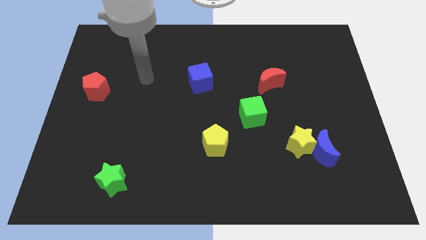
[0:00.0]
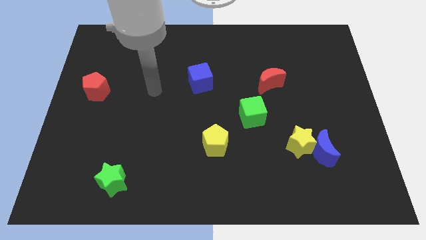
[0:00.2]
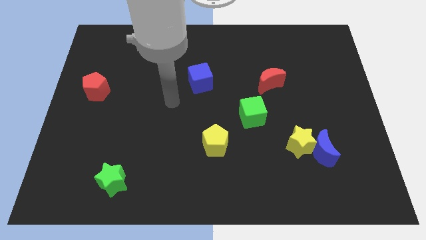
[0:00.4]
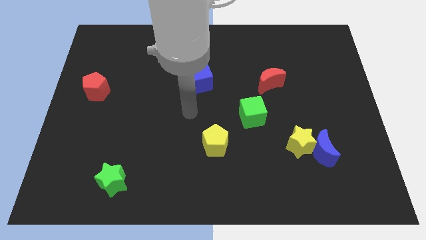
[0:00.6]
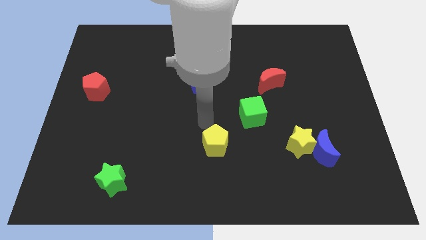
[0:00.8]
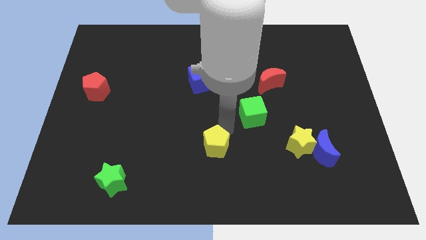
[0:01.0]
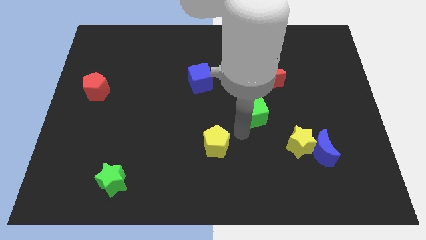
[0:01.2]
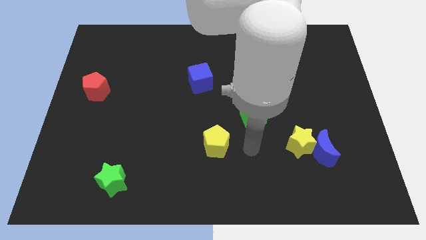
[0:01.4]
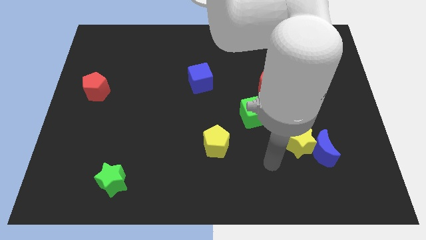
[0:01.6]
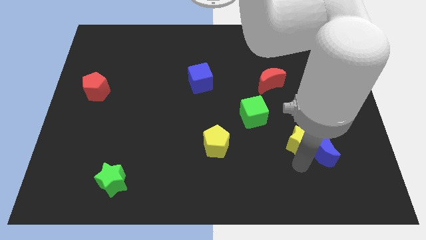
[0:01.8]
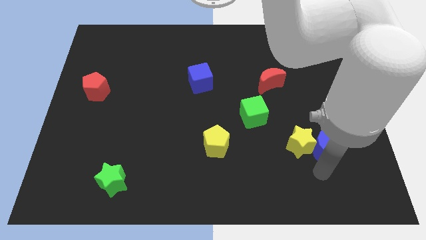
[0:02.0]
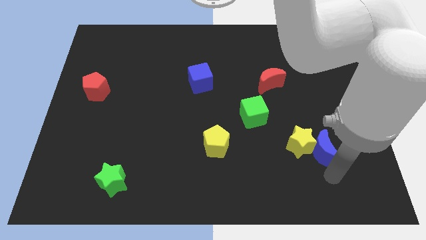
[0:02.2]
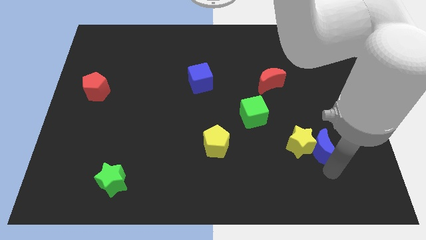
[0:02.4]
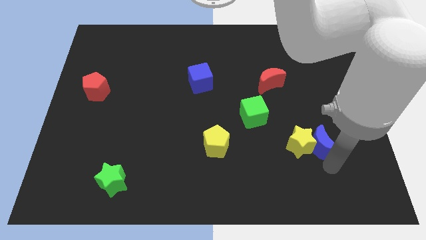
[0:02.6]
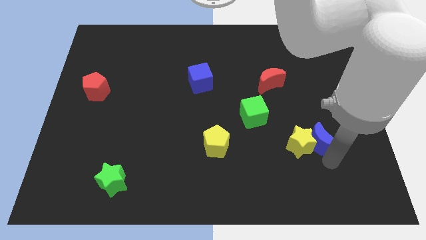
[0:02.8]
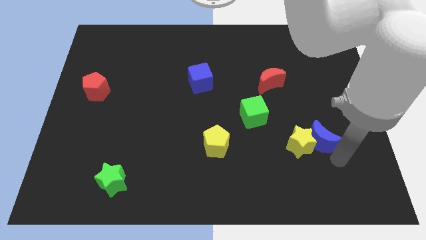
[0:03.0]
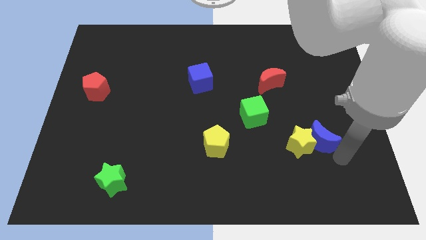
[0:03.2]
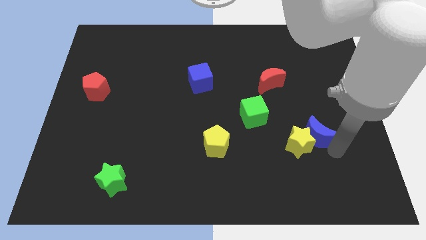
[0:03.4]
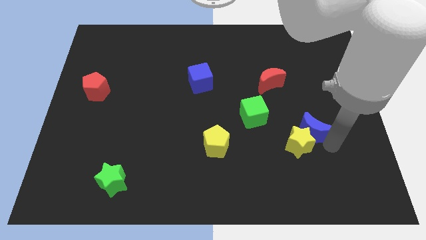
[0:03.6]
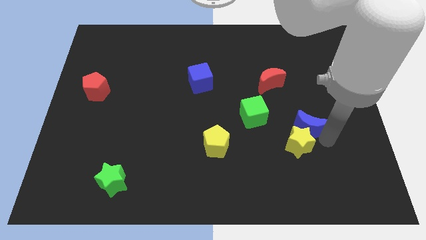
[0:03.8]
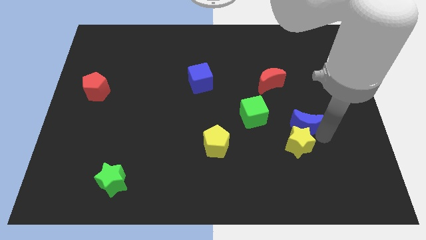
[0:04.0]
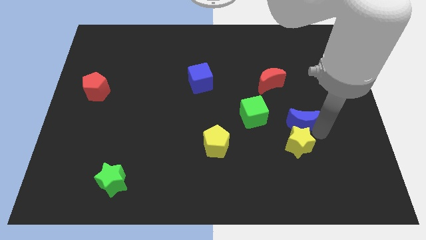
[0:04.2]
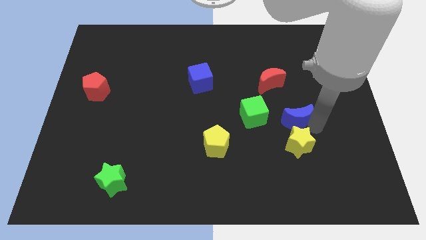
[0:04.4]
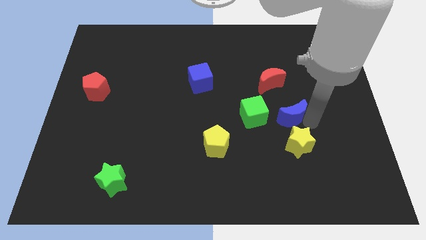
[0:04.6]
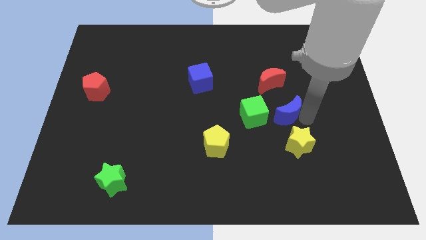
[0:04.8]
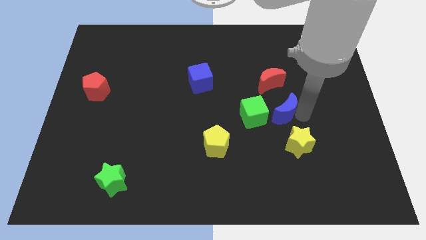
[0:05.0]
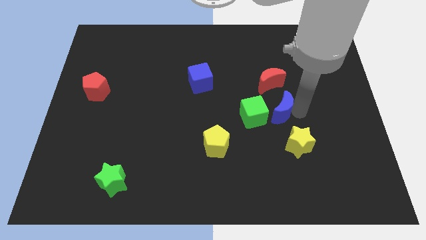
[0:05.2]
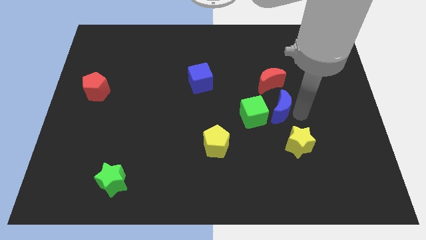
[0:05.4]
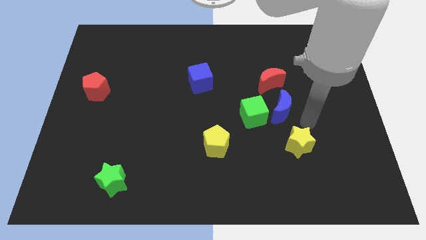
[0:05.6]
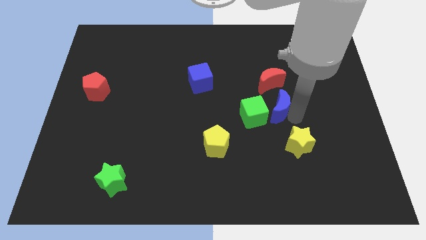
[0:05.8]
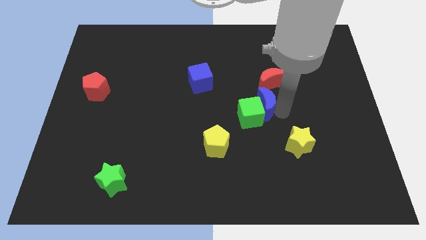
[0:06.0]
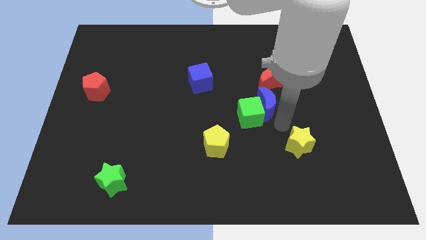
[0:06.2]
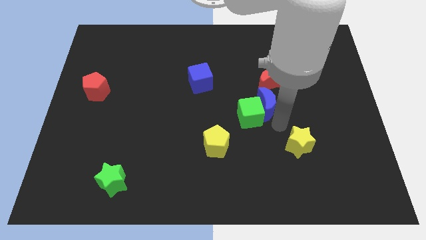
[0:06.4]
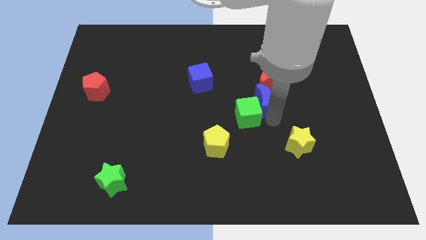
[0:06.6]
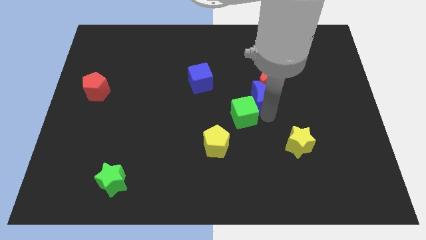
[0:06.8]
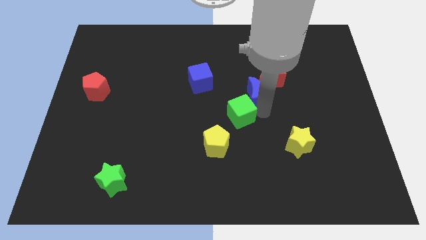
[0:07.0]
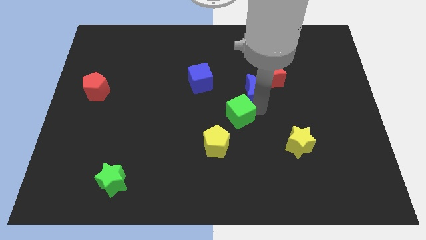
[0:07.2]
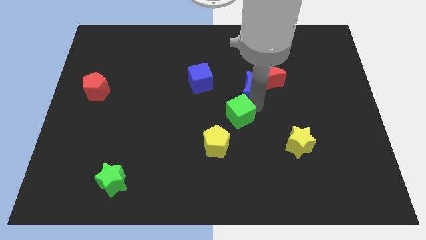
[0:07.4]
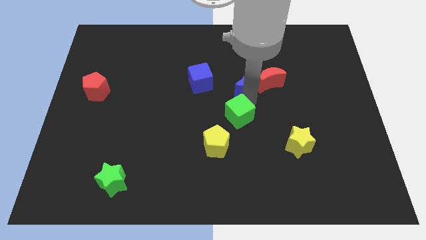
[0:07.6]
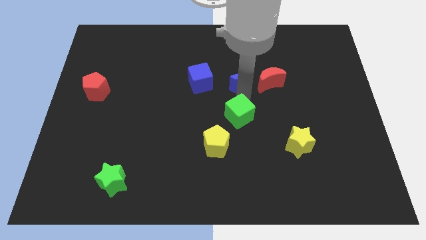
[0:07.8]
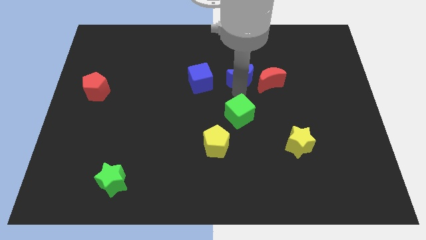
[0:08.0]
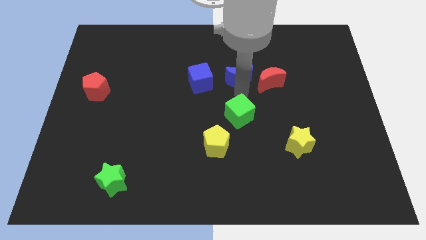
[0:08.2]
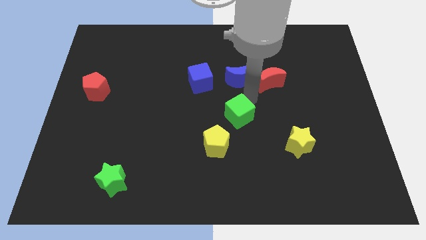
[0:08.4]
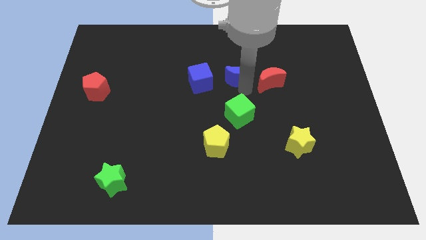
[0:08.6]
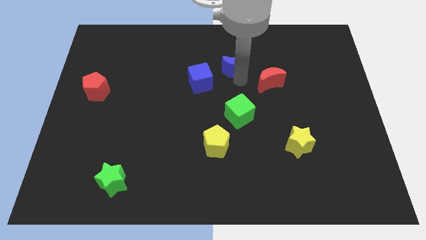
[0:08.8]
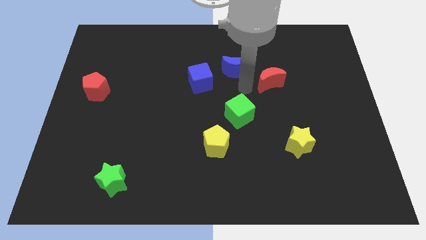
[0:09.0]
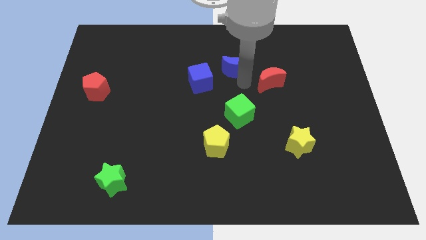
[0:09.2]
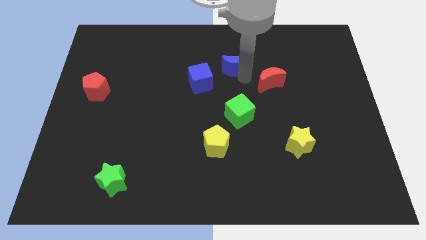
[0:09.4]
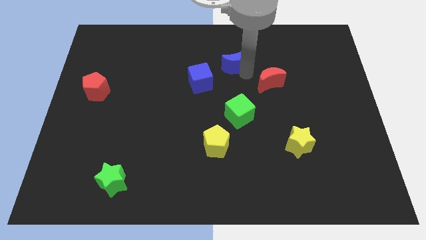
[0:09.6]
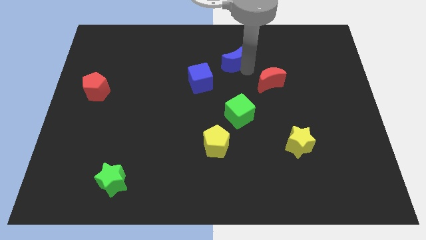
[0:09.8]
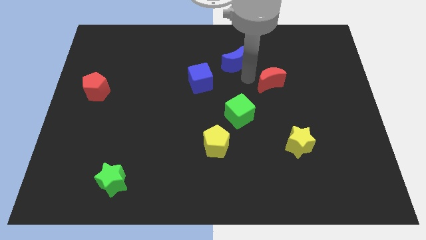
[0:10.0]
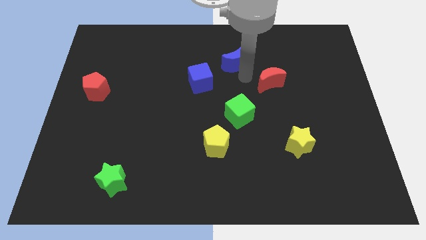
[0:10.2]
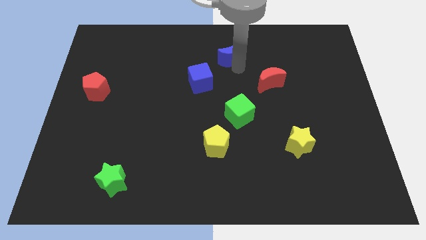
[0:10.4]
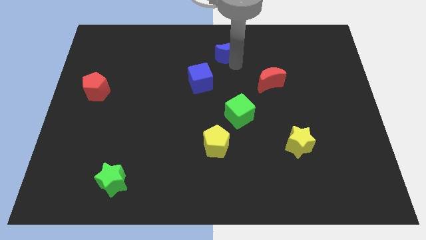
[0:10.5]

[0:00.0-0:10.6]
put the blue moon to the top

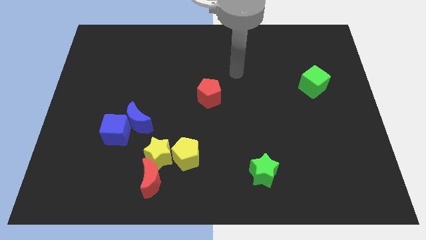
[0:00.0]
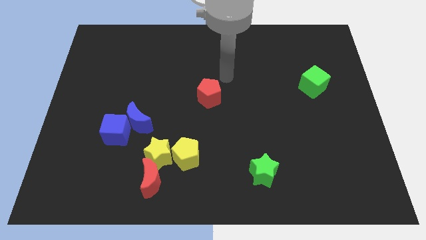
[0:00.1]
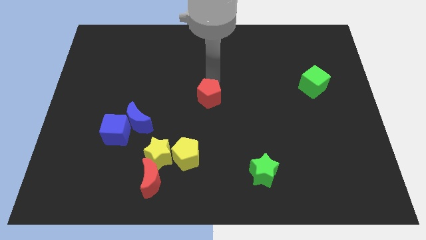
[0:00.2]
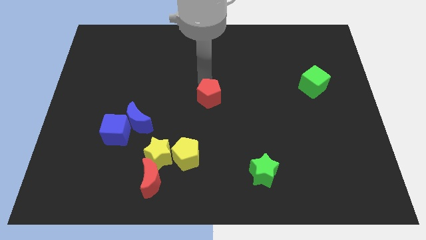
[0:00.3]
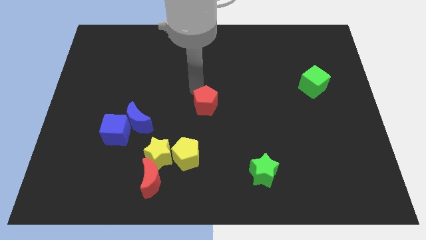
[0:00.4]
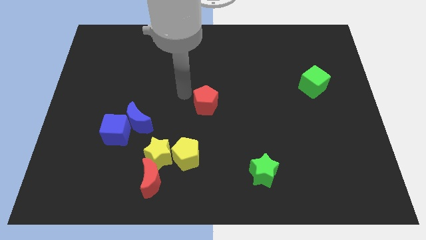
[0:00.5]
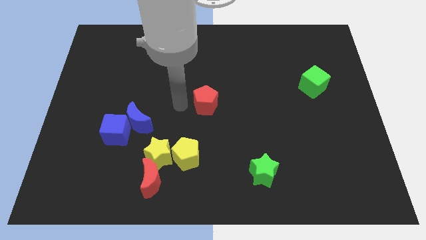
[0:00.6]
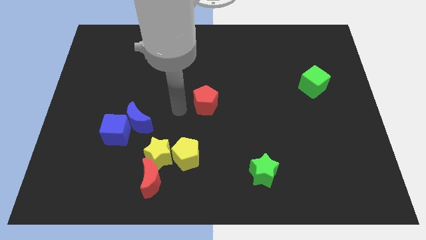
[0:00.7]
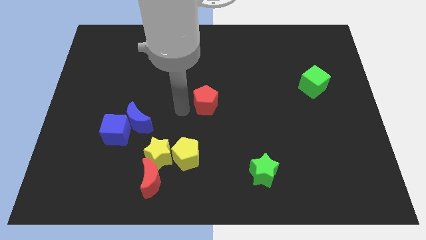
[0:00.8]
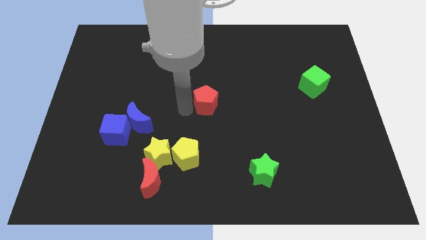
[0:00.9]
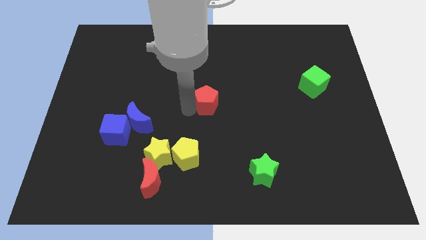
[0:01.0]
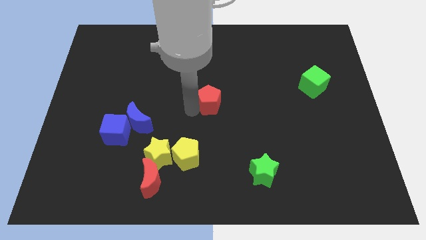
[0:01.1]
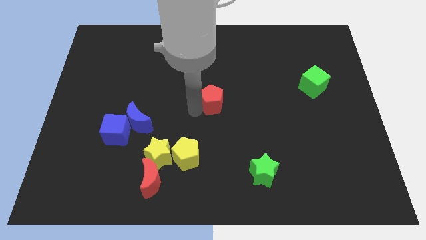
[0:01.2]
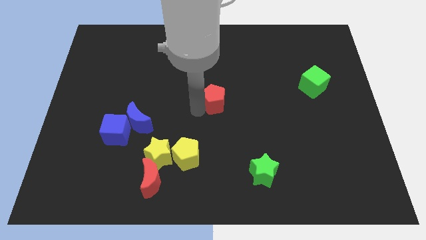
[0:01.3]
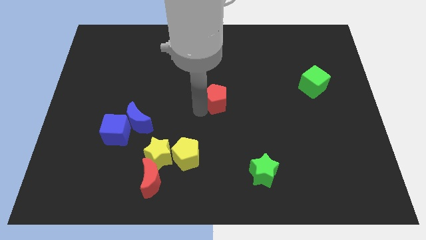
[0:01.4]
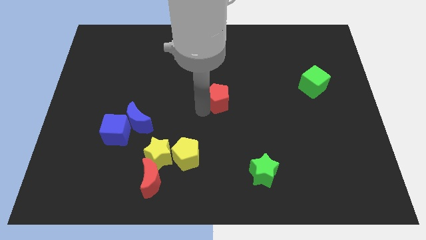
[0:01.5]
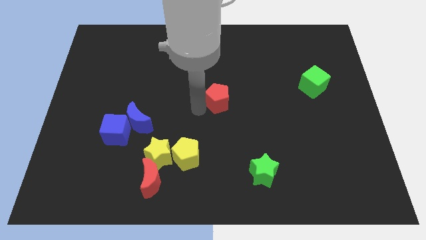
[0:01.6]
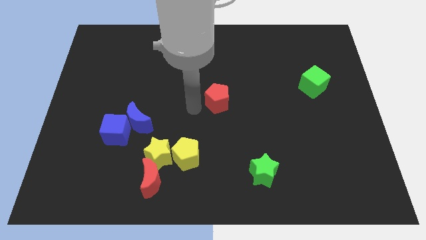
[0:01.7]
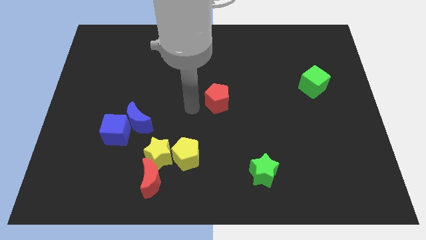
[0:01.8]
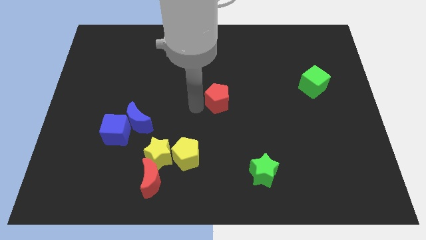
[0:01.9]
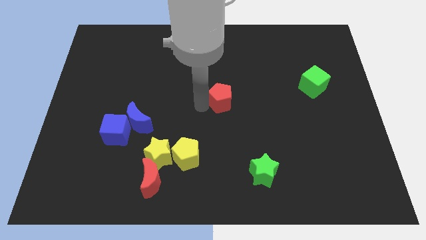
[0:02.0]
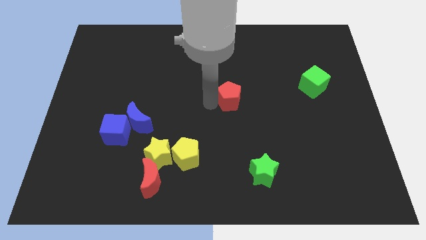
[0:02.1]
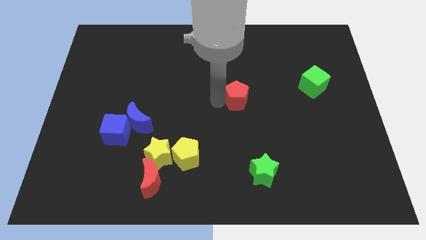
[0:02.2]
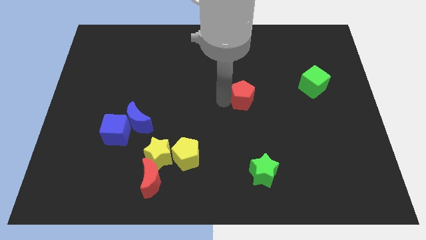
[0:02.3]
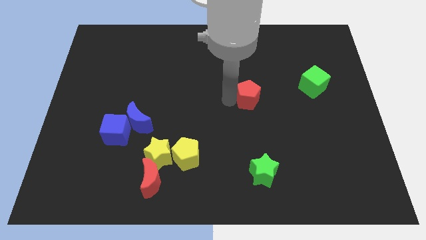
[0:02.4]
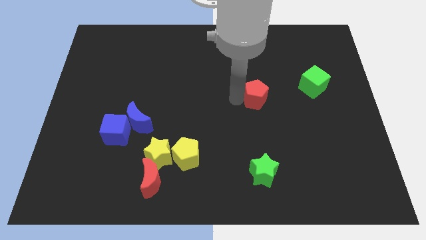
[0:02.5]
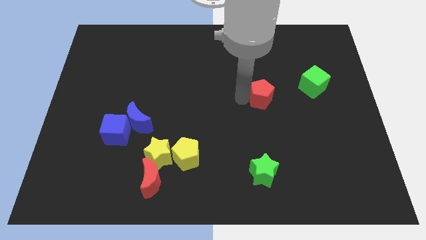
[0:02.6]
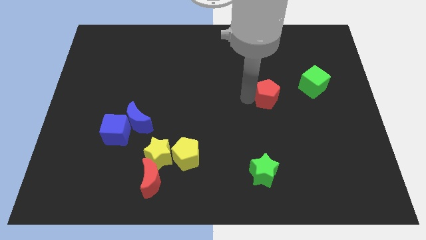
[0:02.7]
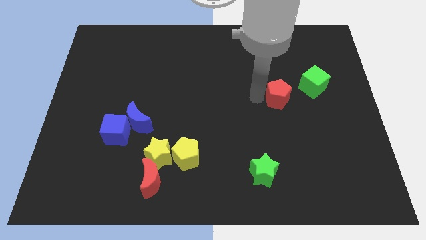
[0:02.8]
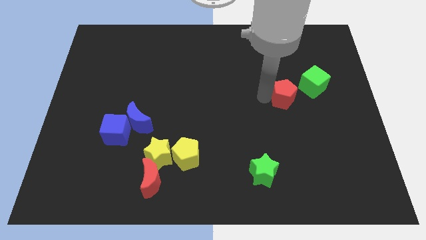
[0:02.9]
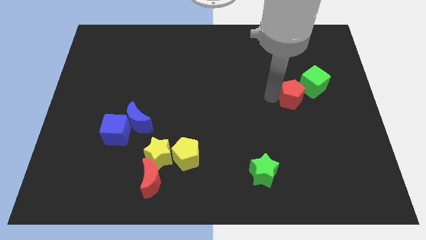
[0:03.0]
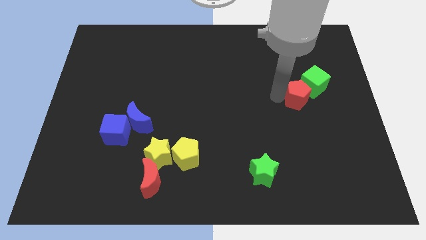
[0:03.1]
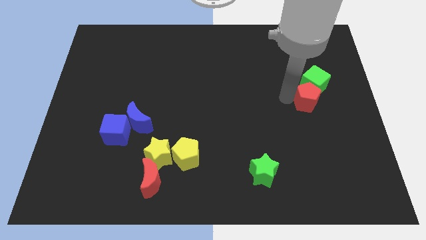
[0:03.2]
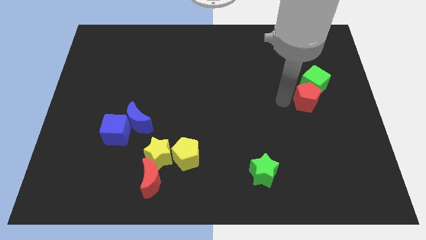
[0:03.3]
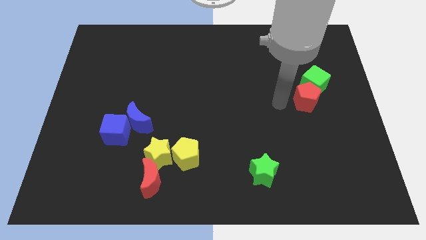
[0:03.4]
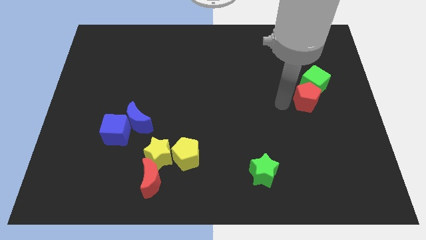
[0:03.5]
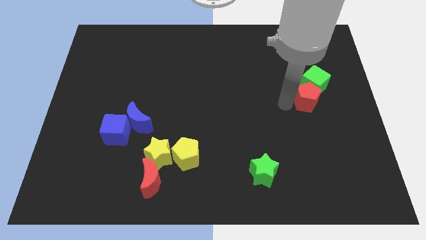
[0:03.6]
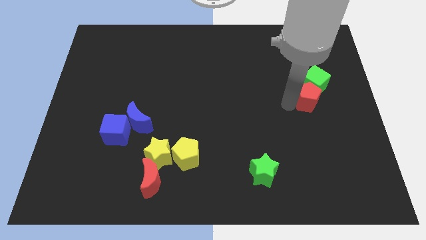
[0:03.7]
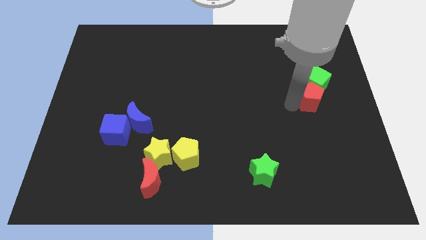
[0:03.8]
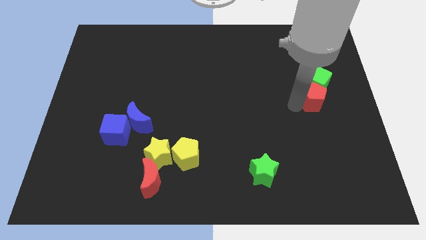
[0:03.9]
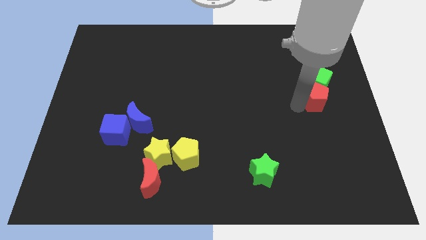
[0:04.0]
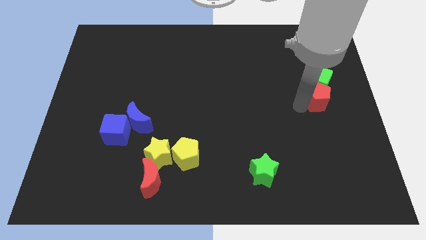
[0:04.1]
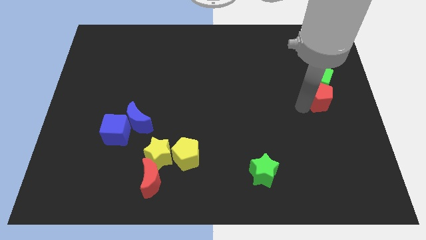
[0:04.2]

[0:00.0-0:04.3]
put the red pentagon to the right side
